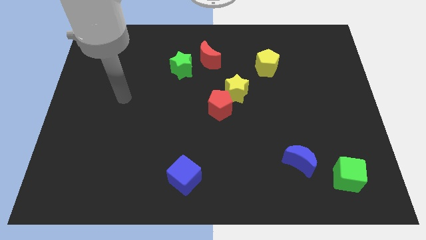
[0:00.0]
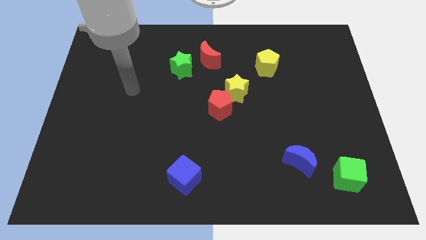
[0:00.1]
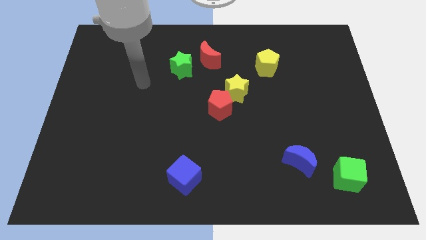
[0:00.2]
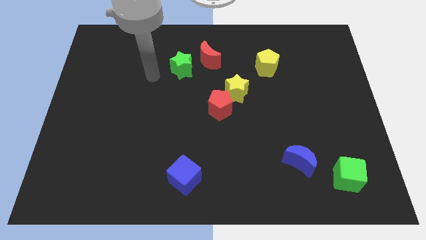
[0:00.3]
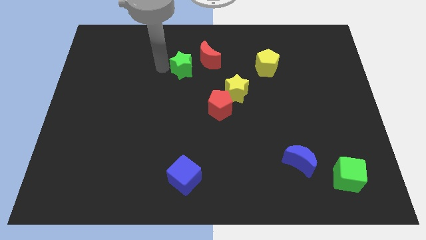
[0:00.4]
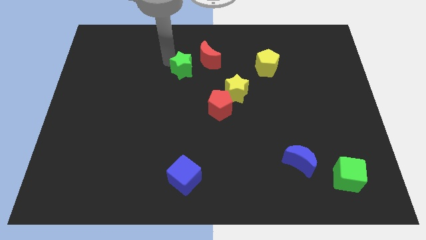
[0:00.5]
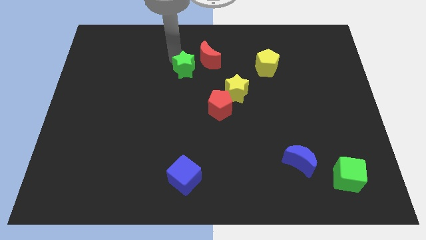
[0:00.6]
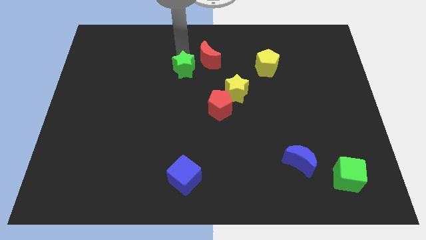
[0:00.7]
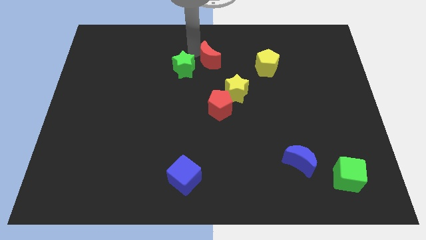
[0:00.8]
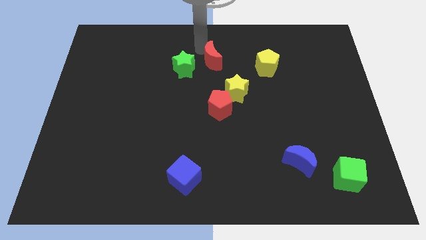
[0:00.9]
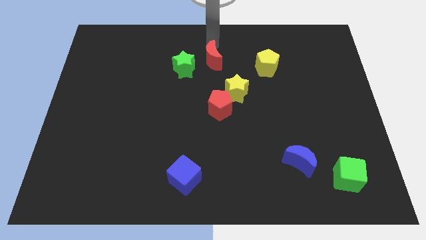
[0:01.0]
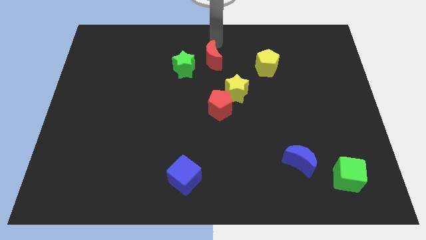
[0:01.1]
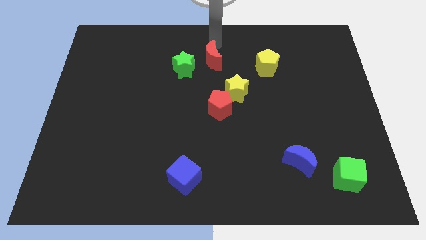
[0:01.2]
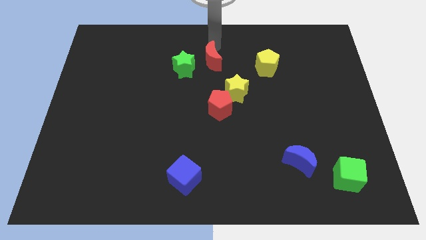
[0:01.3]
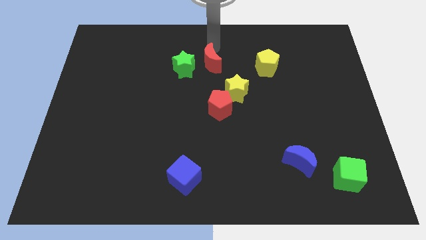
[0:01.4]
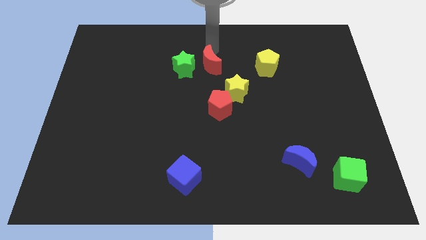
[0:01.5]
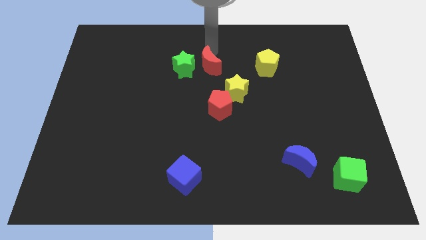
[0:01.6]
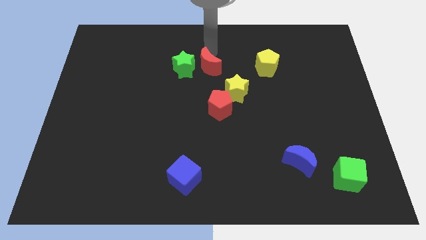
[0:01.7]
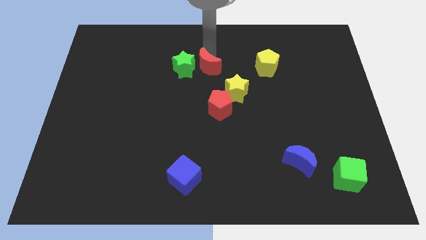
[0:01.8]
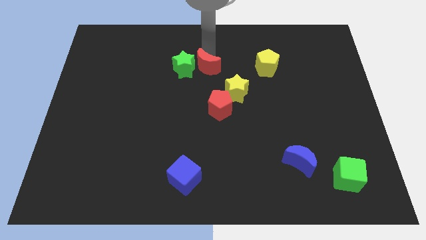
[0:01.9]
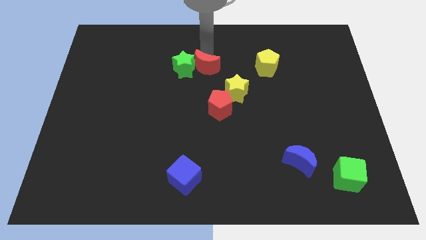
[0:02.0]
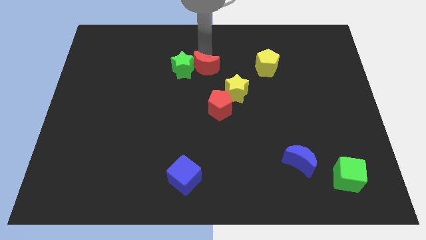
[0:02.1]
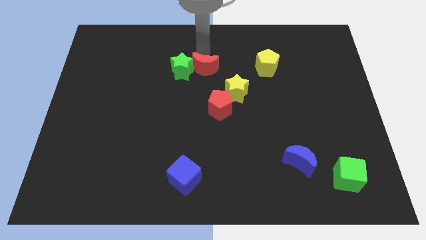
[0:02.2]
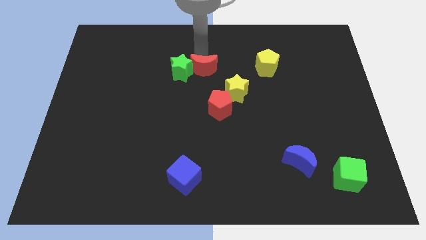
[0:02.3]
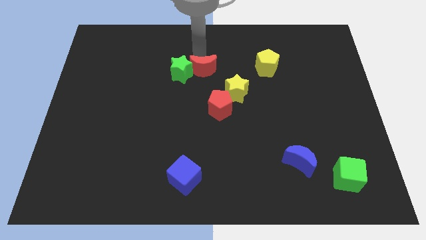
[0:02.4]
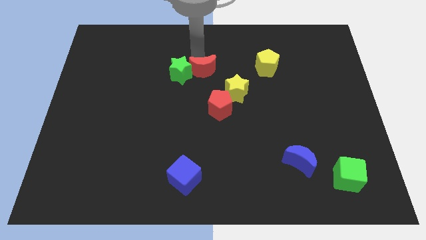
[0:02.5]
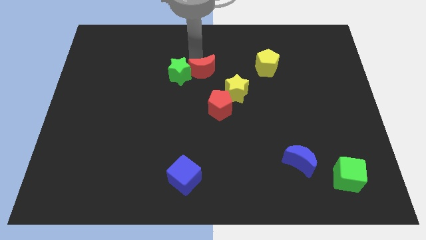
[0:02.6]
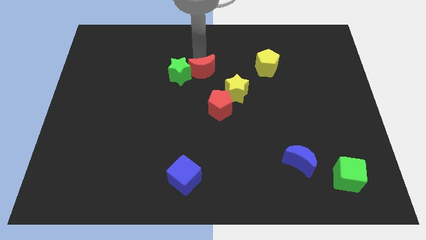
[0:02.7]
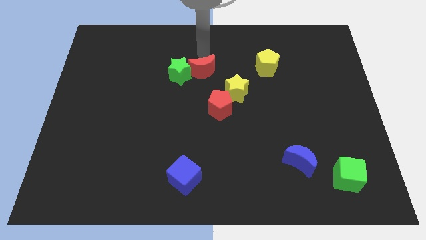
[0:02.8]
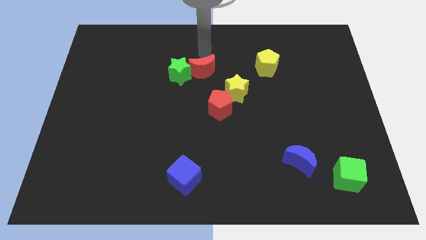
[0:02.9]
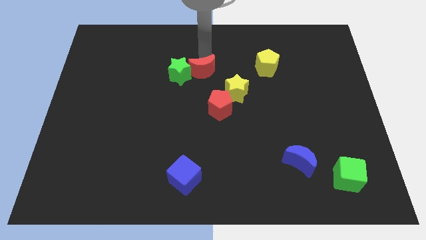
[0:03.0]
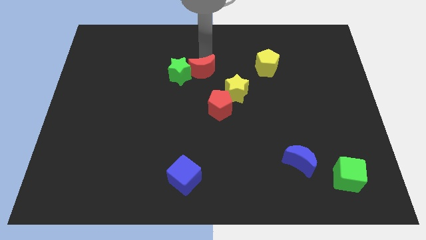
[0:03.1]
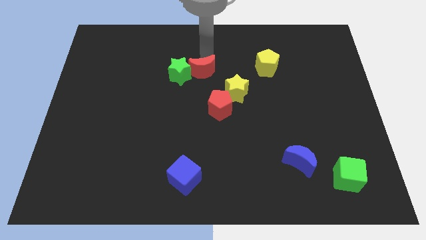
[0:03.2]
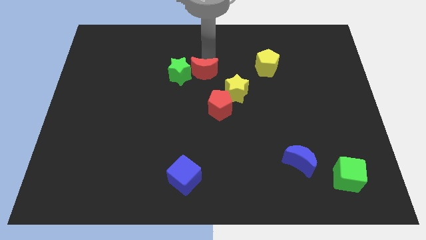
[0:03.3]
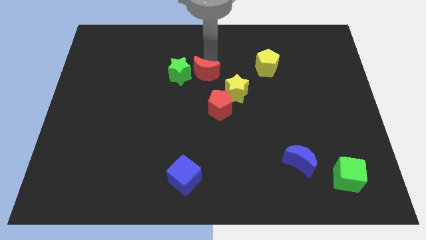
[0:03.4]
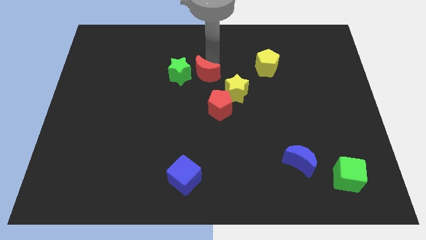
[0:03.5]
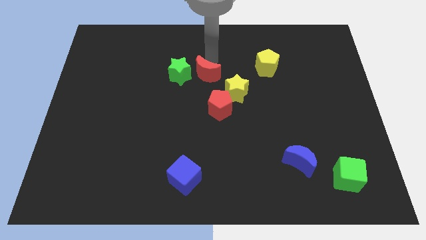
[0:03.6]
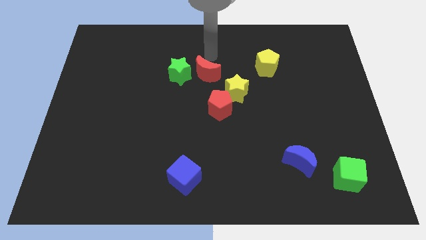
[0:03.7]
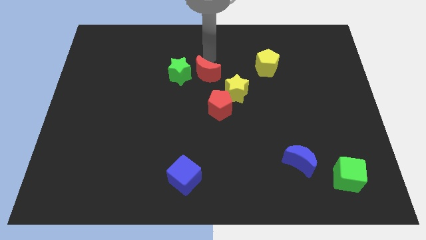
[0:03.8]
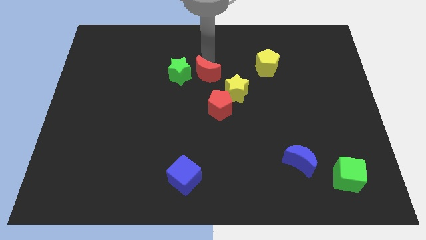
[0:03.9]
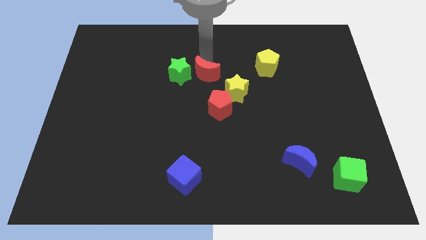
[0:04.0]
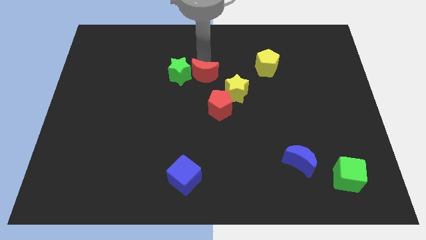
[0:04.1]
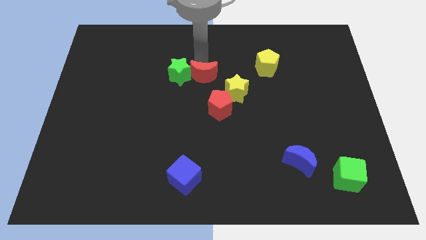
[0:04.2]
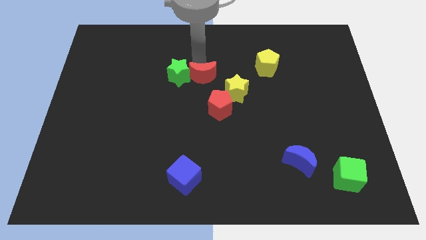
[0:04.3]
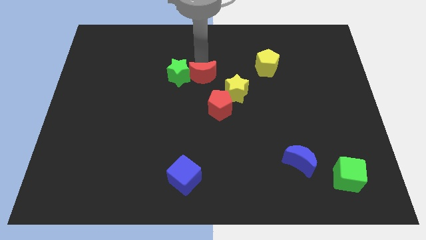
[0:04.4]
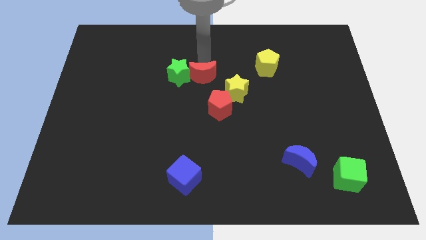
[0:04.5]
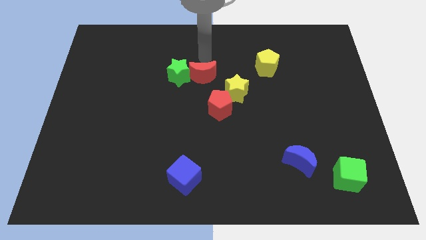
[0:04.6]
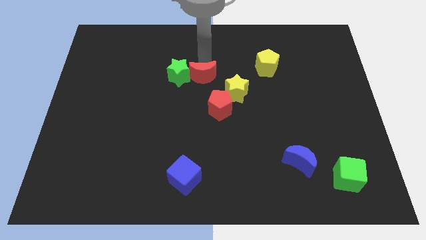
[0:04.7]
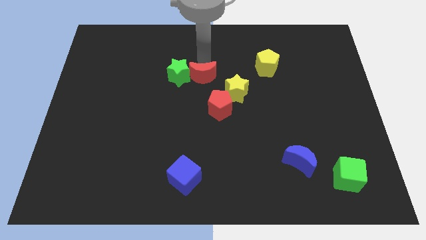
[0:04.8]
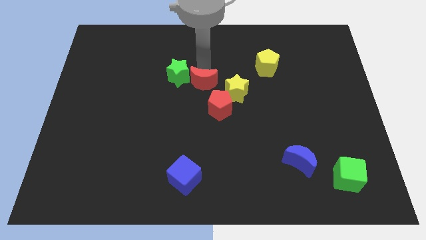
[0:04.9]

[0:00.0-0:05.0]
move the red moon downwards a bit

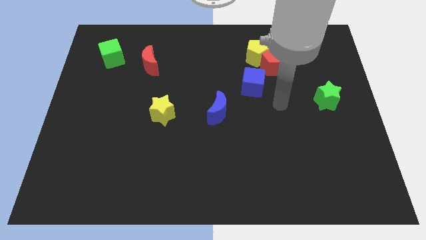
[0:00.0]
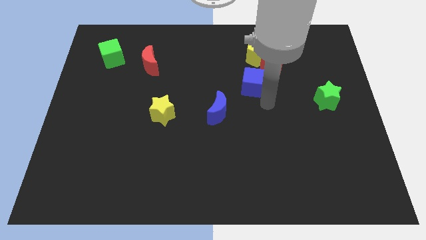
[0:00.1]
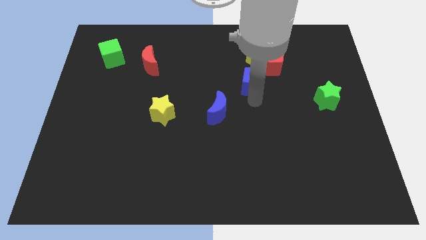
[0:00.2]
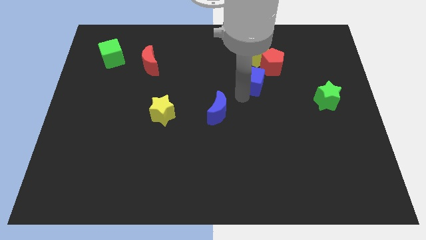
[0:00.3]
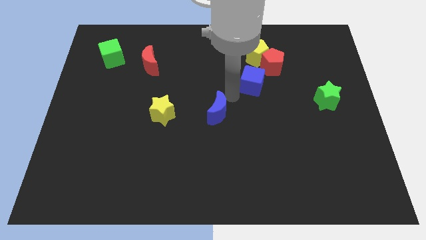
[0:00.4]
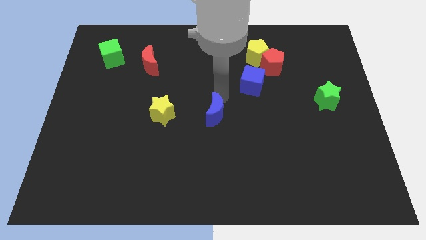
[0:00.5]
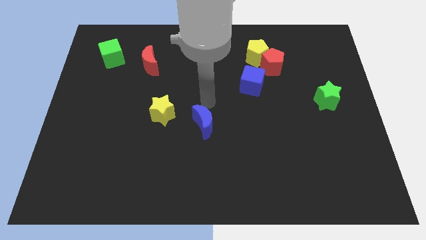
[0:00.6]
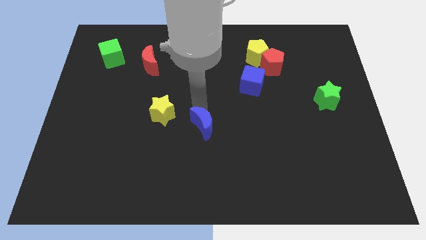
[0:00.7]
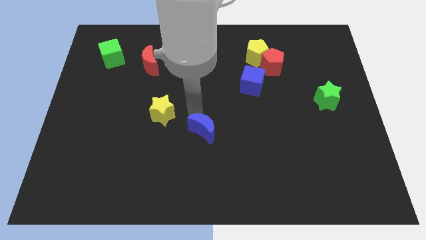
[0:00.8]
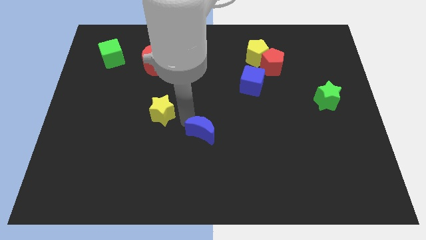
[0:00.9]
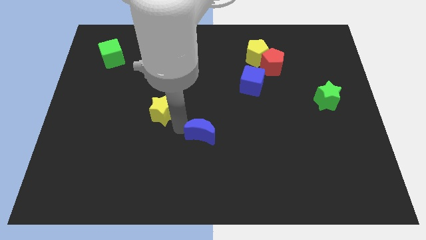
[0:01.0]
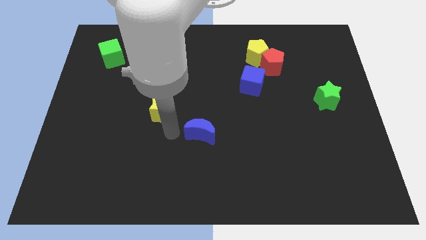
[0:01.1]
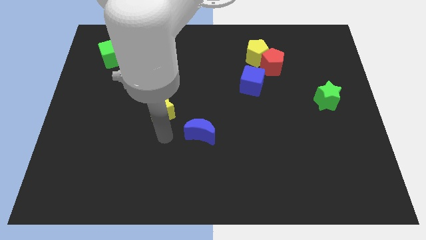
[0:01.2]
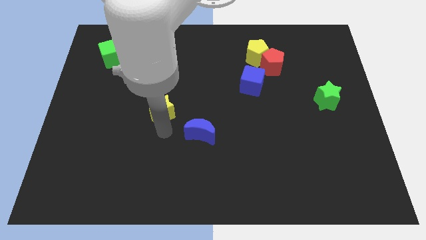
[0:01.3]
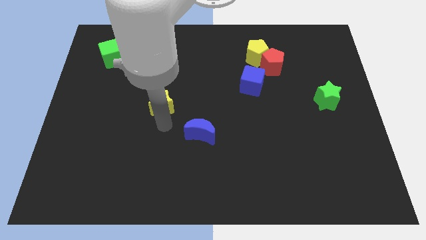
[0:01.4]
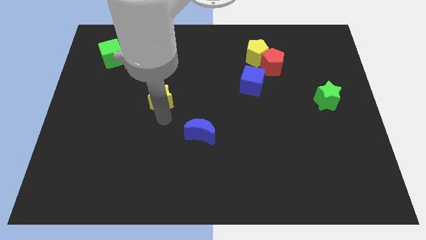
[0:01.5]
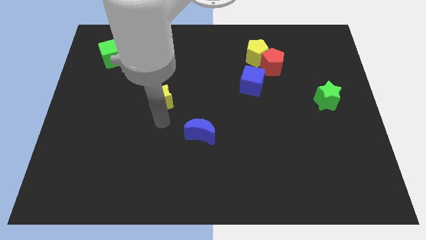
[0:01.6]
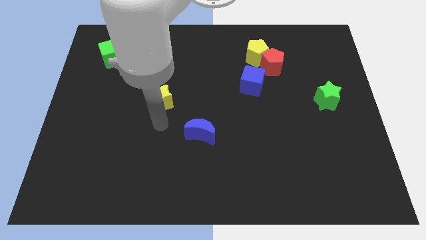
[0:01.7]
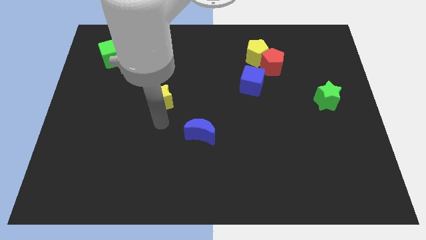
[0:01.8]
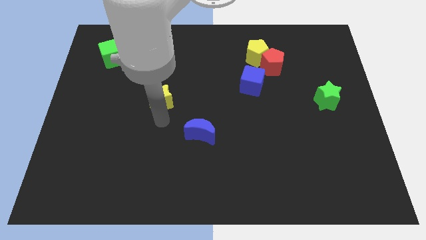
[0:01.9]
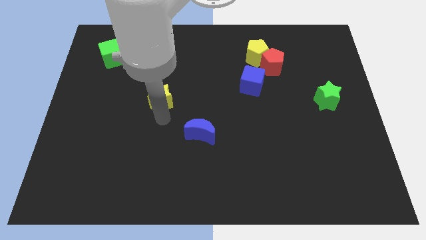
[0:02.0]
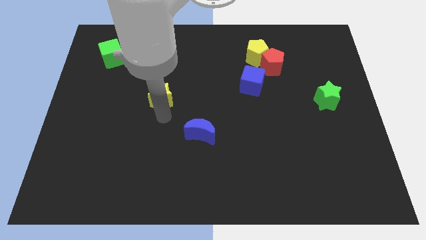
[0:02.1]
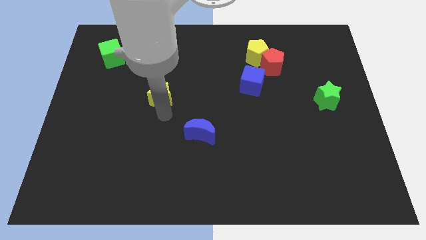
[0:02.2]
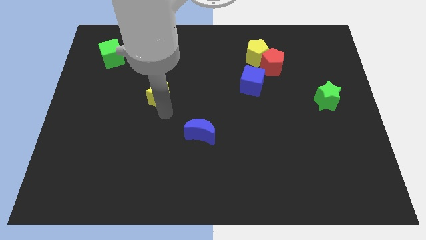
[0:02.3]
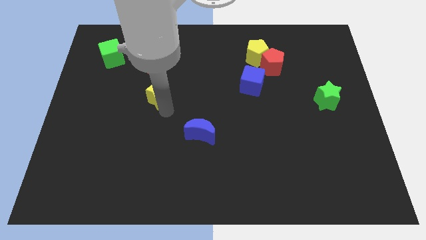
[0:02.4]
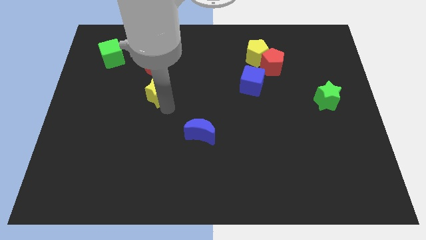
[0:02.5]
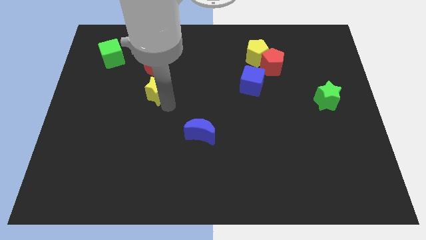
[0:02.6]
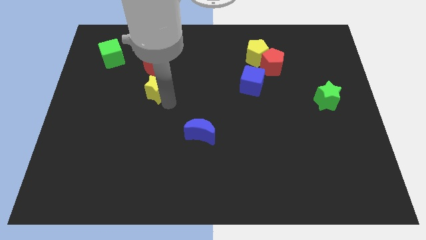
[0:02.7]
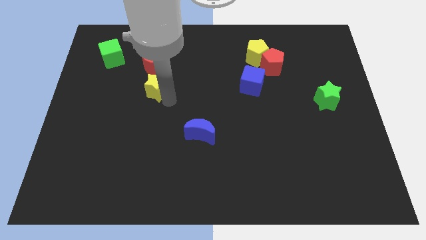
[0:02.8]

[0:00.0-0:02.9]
push the yellow star a bit upwards
